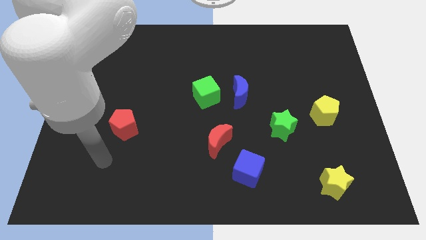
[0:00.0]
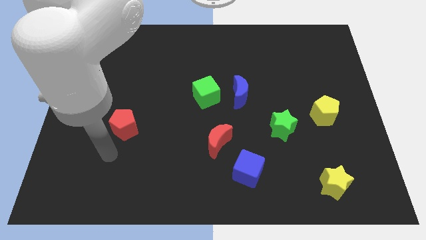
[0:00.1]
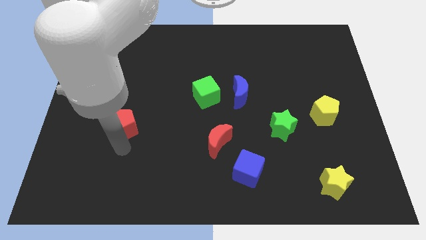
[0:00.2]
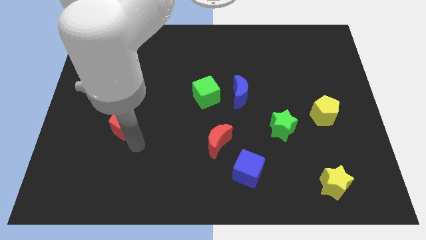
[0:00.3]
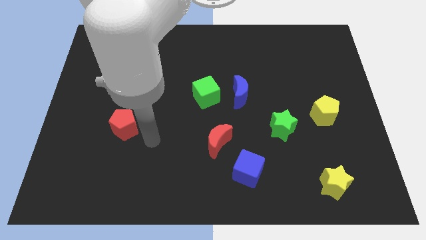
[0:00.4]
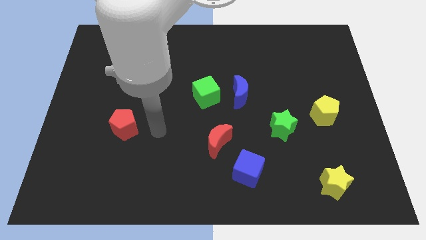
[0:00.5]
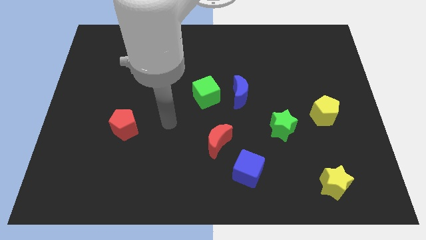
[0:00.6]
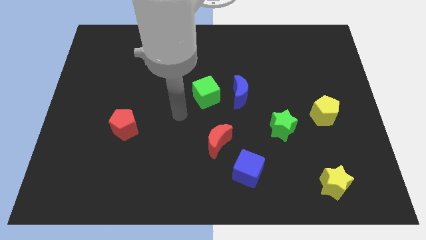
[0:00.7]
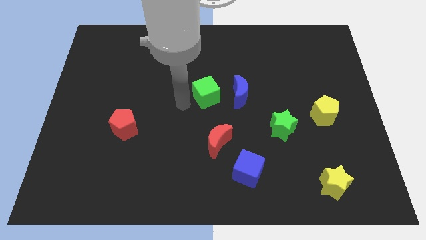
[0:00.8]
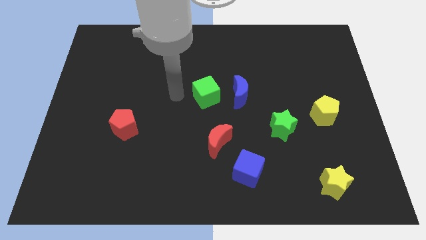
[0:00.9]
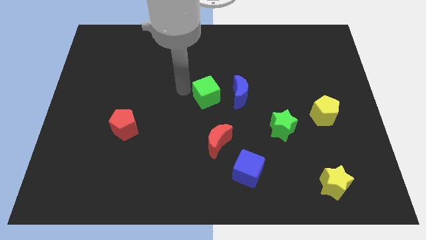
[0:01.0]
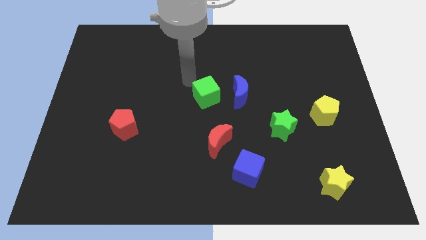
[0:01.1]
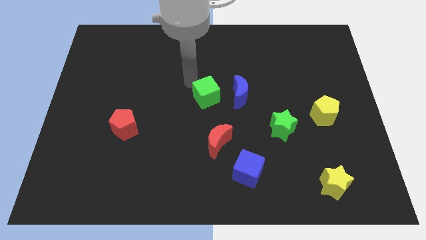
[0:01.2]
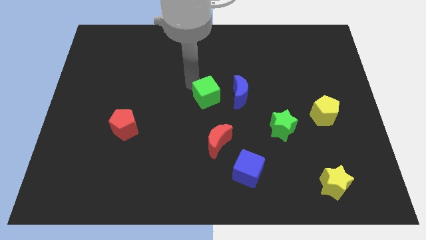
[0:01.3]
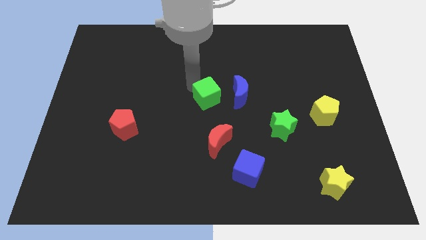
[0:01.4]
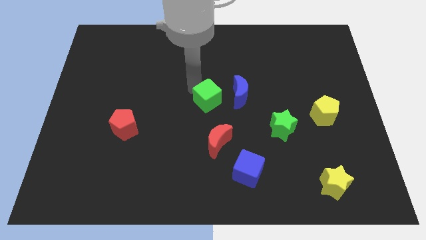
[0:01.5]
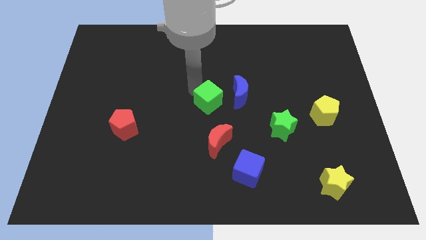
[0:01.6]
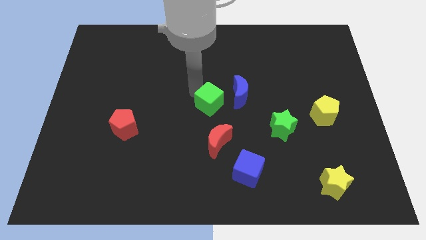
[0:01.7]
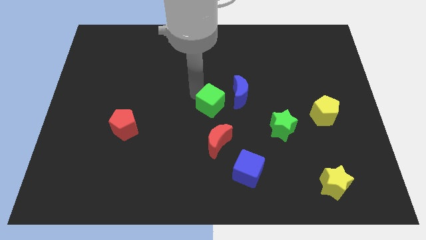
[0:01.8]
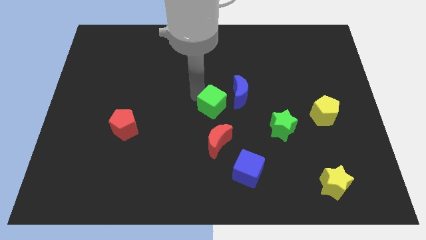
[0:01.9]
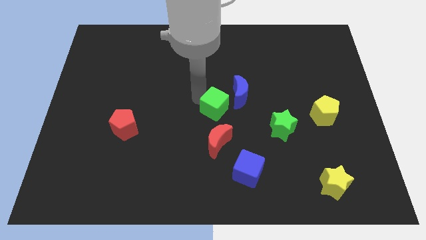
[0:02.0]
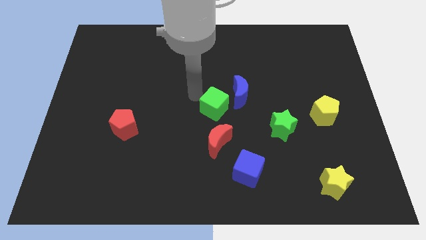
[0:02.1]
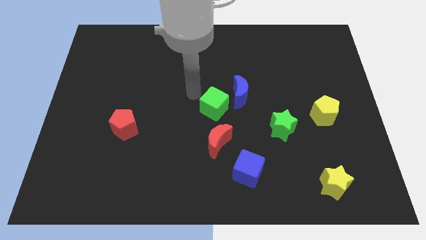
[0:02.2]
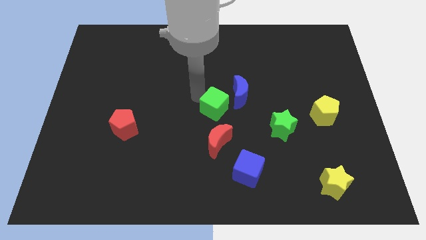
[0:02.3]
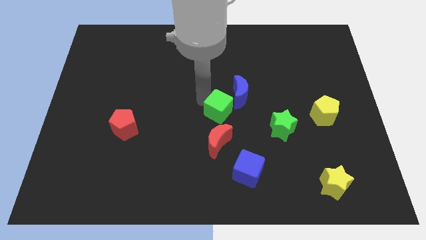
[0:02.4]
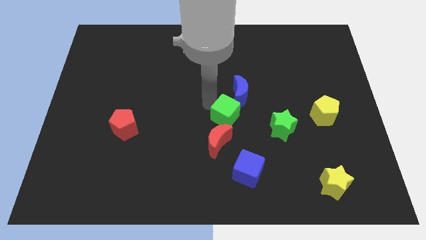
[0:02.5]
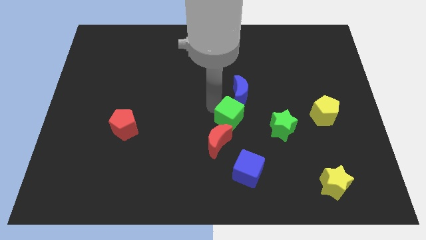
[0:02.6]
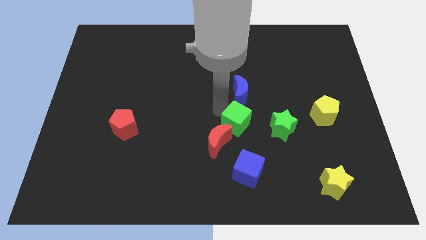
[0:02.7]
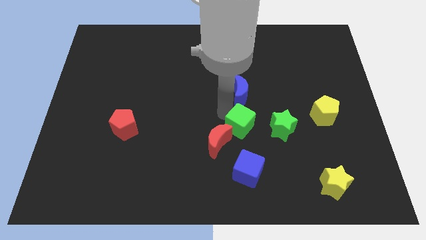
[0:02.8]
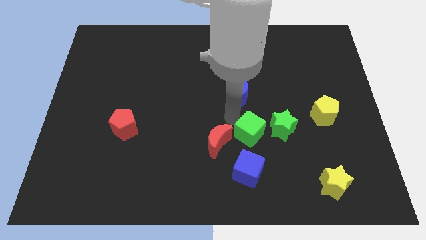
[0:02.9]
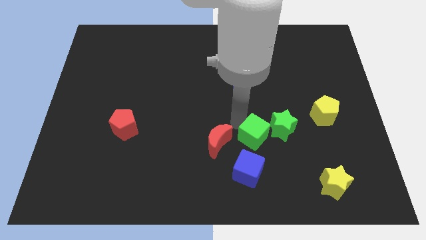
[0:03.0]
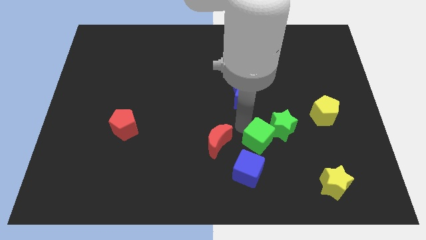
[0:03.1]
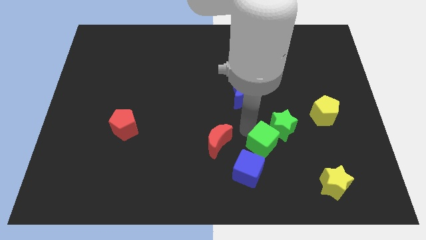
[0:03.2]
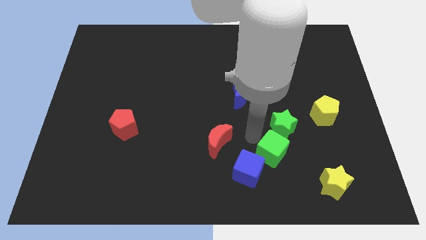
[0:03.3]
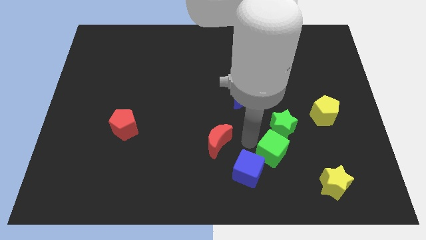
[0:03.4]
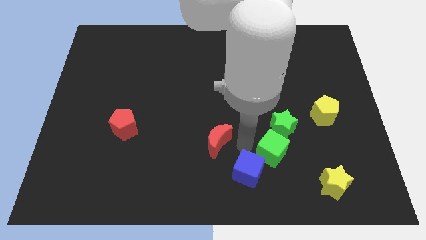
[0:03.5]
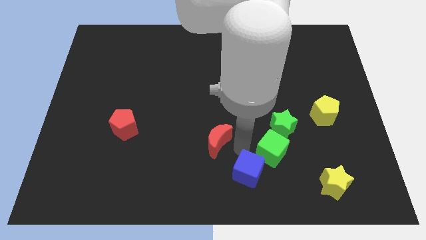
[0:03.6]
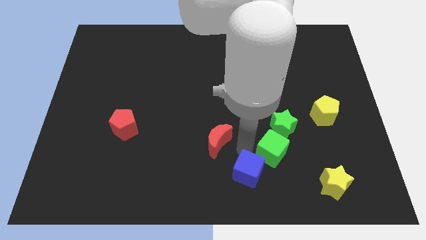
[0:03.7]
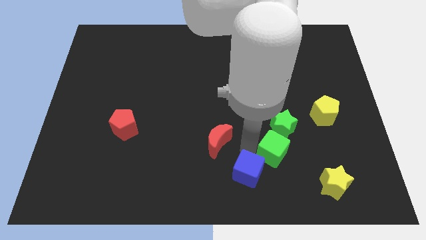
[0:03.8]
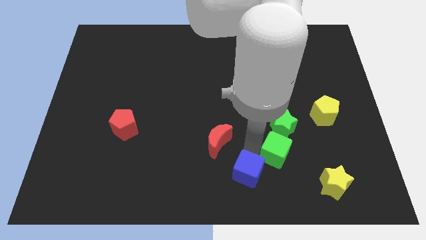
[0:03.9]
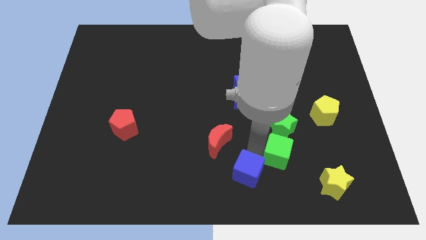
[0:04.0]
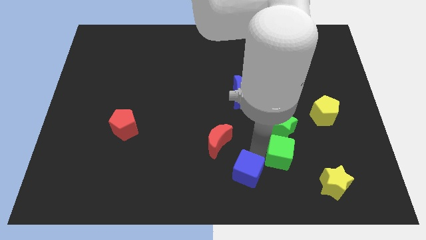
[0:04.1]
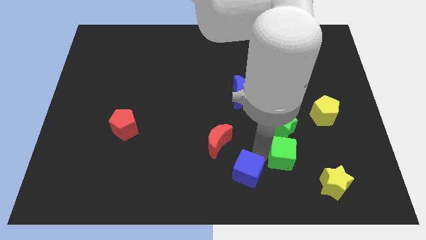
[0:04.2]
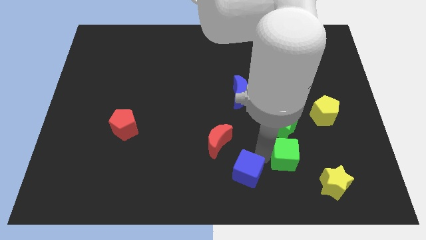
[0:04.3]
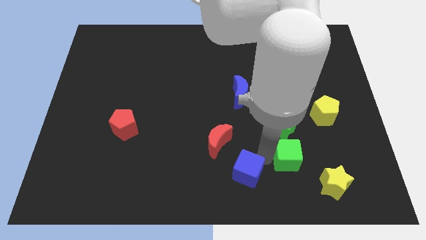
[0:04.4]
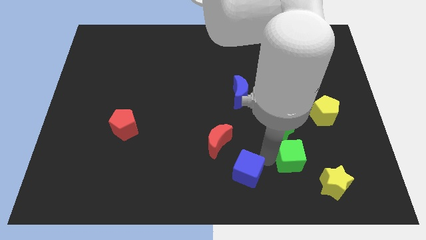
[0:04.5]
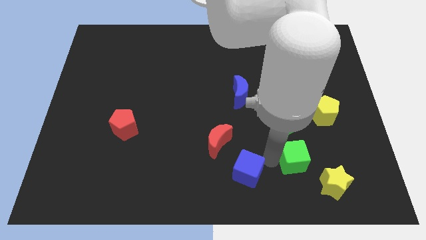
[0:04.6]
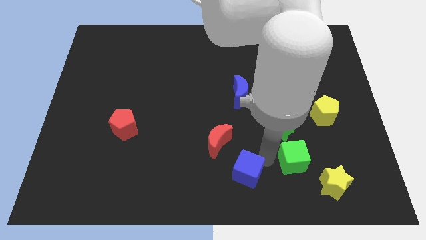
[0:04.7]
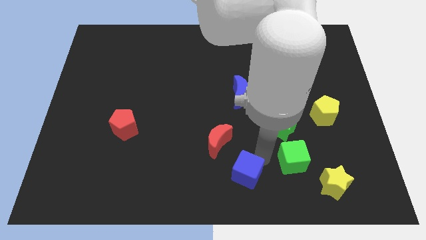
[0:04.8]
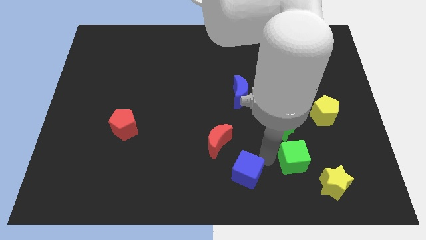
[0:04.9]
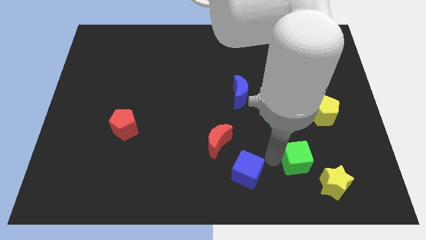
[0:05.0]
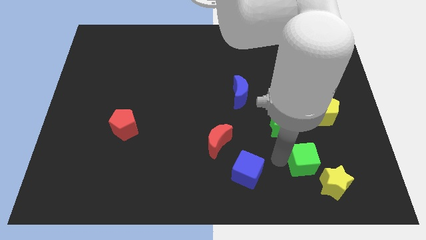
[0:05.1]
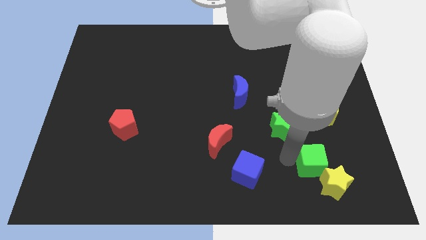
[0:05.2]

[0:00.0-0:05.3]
push the green cube towards the yellow star

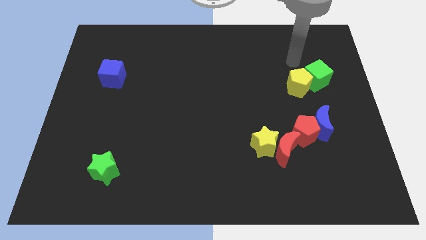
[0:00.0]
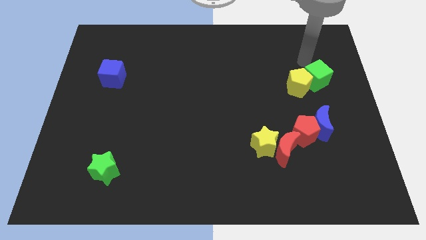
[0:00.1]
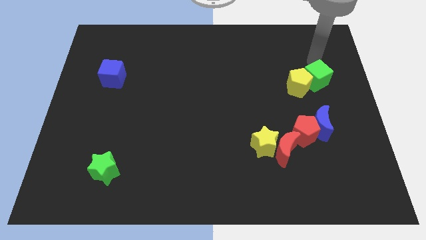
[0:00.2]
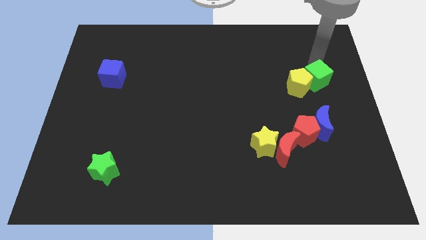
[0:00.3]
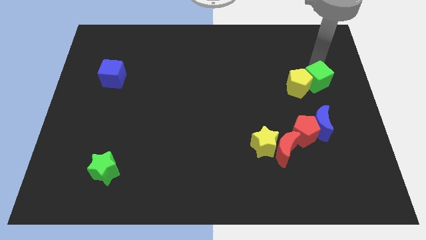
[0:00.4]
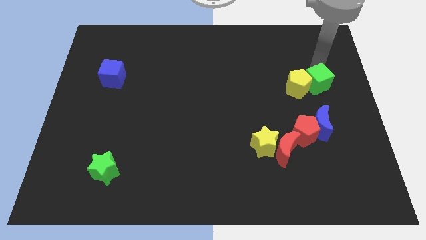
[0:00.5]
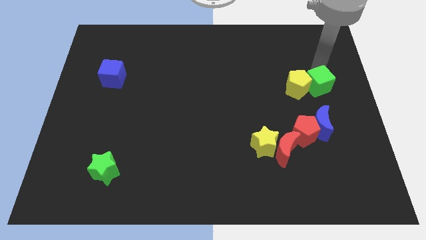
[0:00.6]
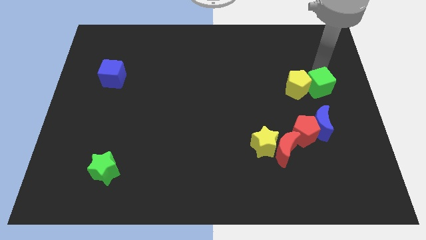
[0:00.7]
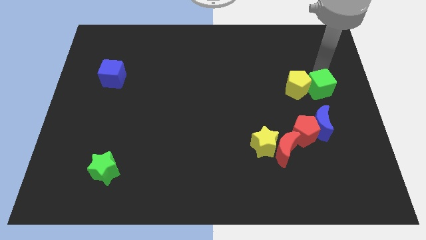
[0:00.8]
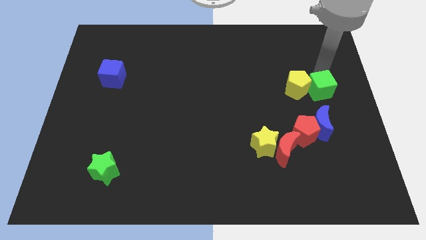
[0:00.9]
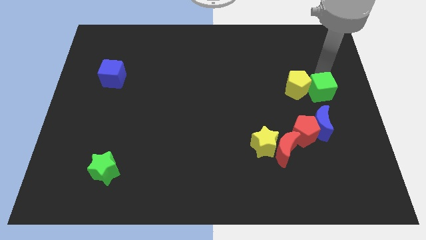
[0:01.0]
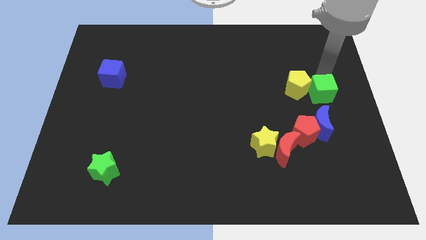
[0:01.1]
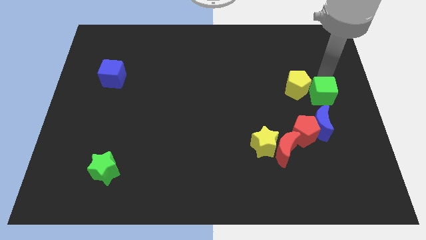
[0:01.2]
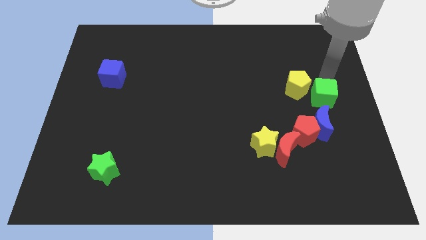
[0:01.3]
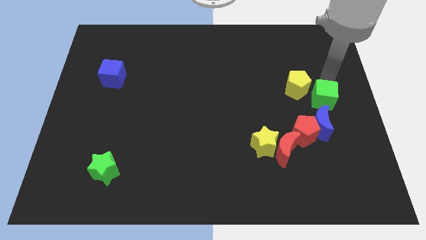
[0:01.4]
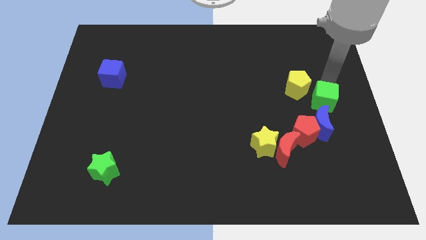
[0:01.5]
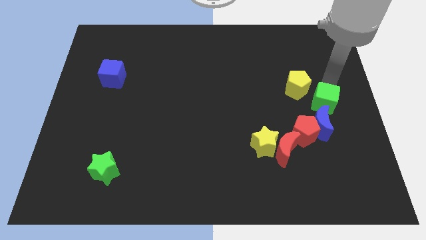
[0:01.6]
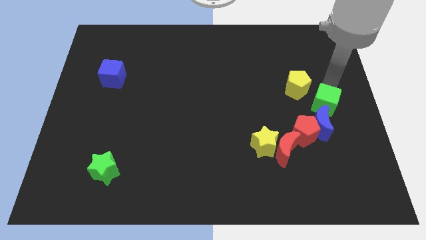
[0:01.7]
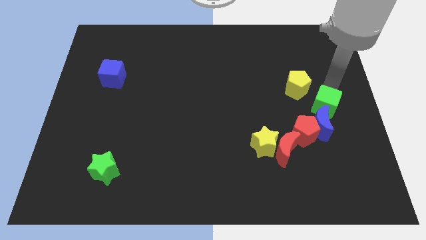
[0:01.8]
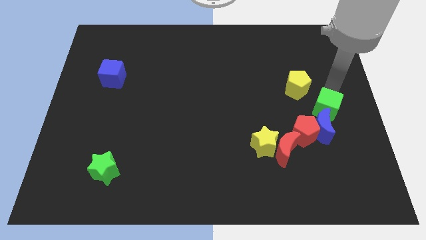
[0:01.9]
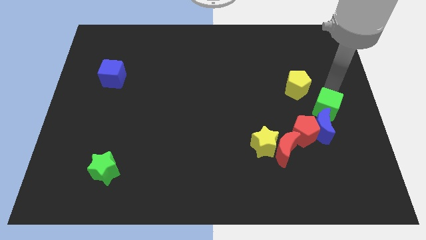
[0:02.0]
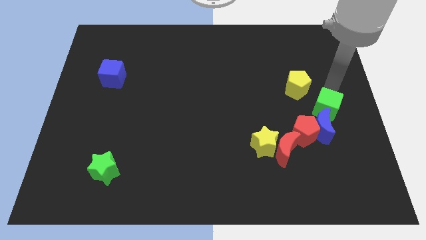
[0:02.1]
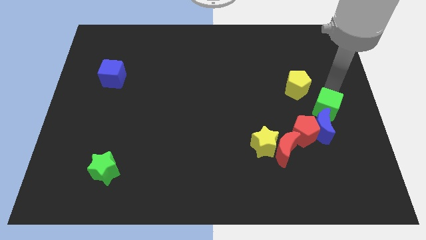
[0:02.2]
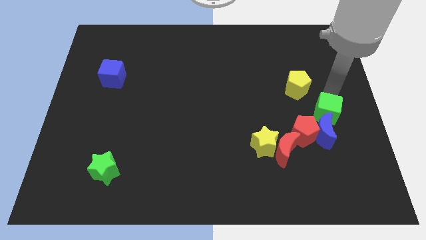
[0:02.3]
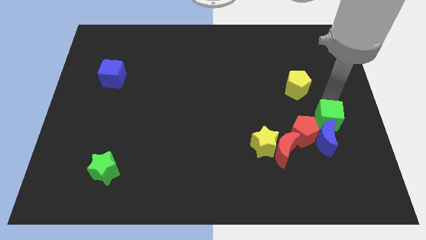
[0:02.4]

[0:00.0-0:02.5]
slide the green cube close to the blue moon
